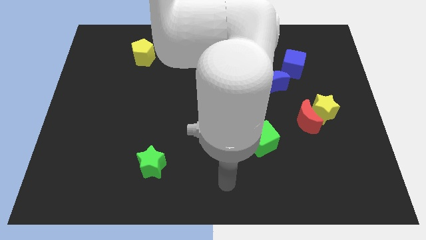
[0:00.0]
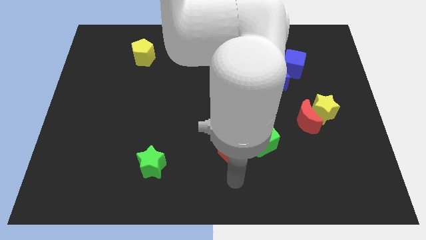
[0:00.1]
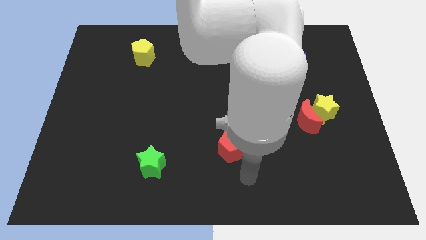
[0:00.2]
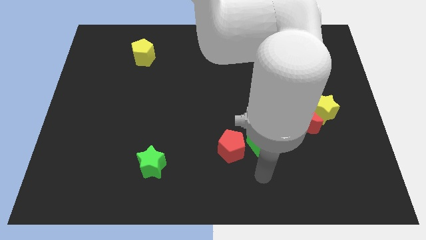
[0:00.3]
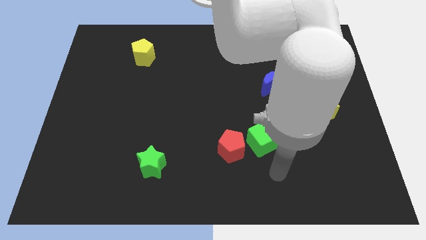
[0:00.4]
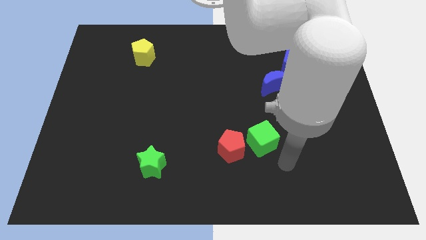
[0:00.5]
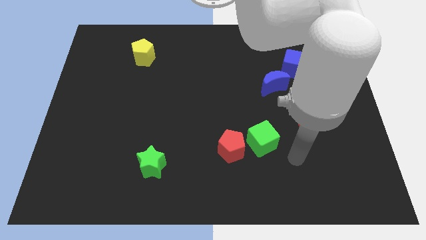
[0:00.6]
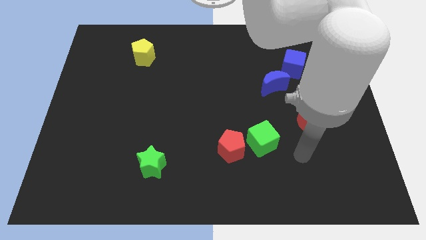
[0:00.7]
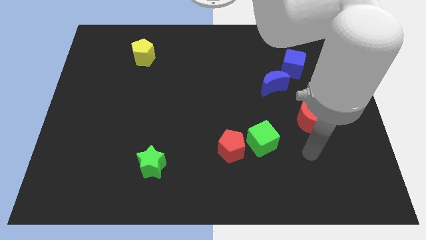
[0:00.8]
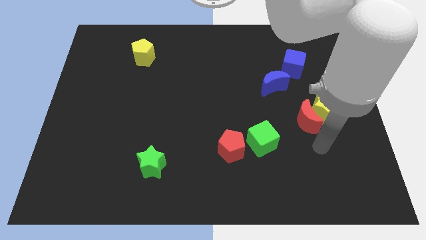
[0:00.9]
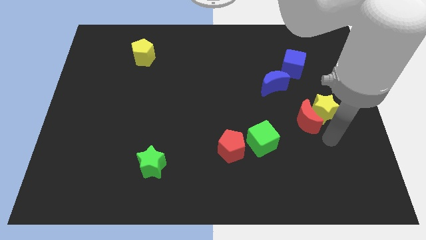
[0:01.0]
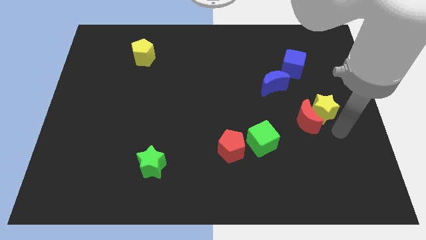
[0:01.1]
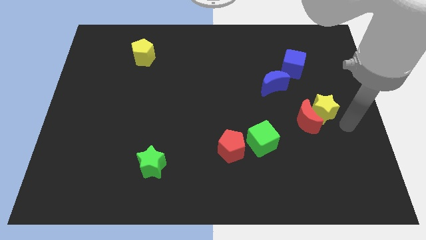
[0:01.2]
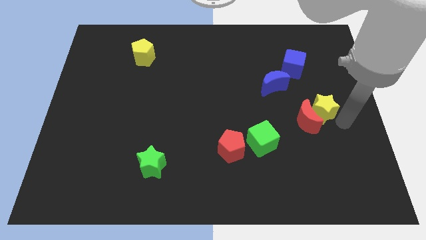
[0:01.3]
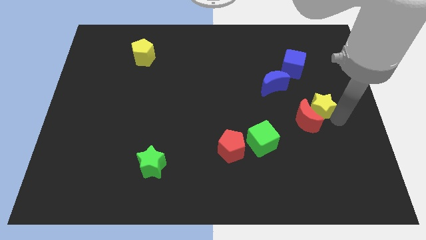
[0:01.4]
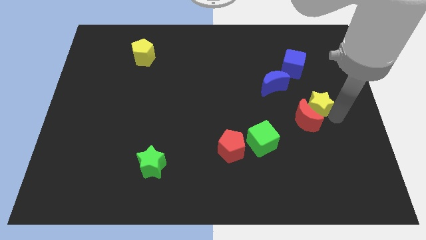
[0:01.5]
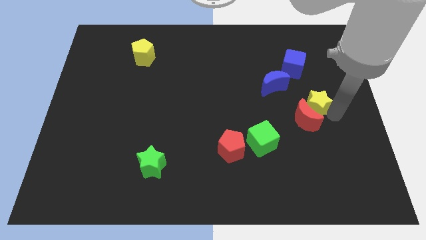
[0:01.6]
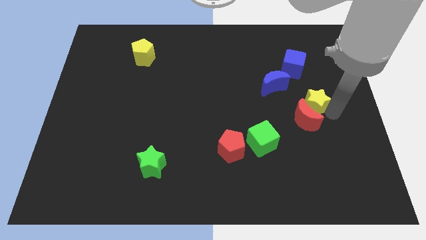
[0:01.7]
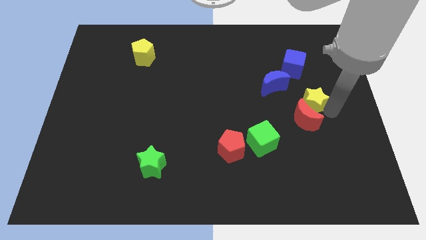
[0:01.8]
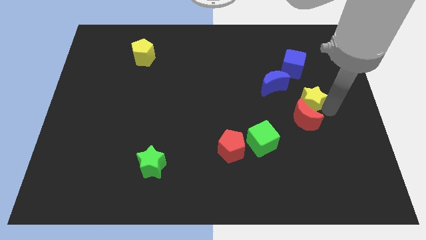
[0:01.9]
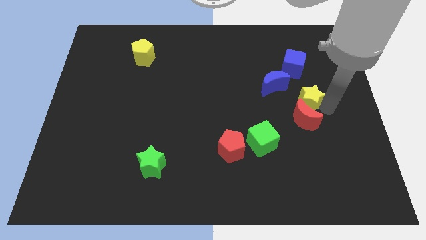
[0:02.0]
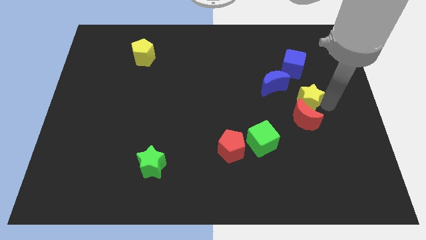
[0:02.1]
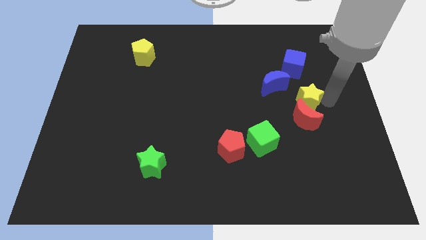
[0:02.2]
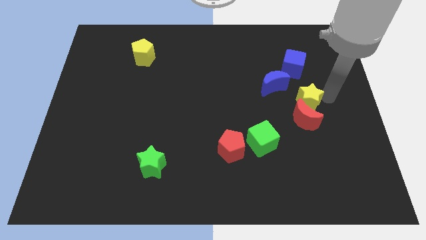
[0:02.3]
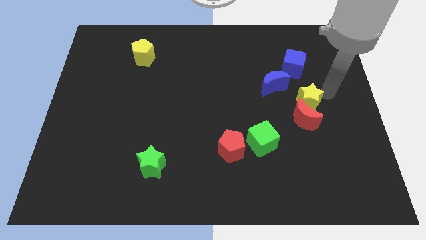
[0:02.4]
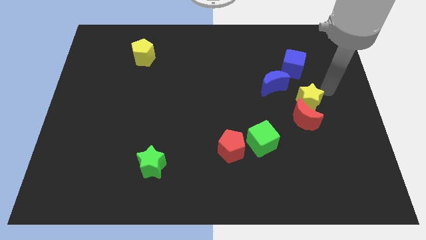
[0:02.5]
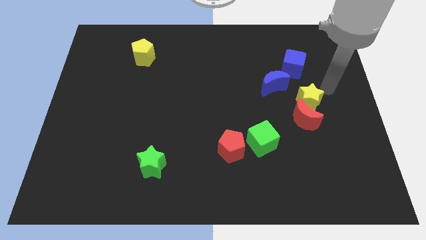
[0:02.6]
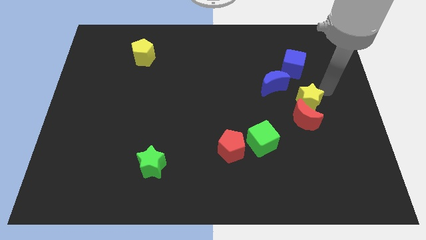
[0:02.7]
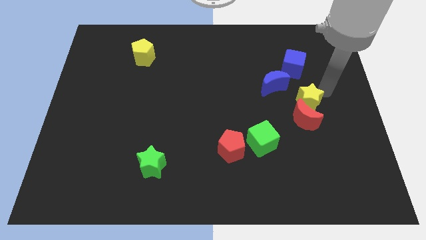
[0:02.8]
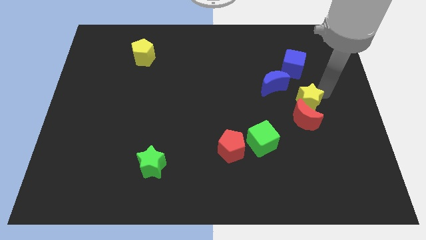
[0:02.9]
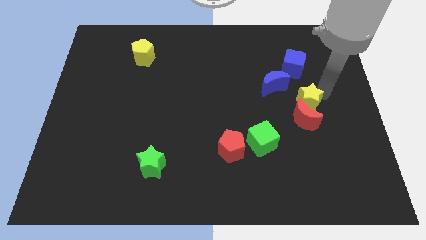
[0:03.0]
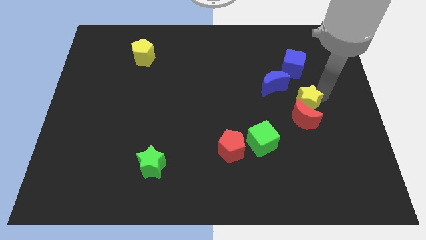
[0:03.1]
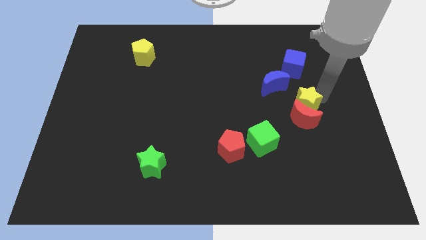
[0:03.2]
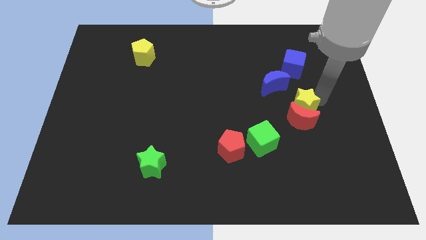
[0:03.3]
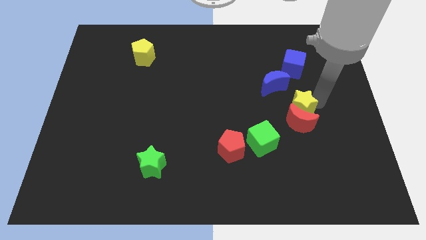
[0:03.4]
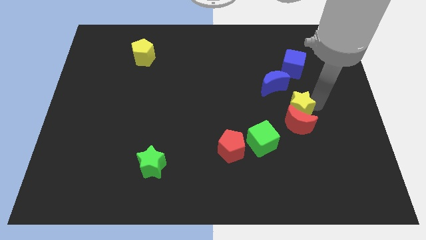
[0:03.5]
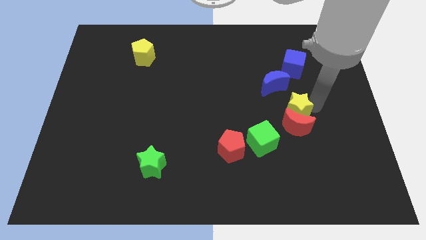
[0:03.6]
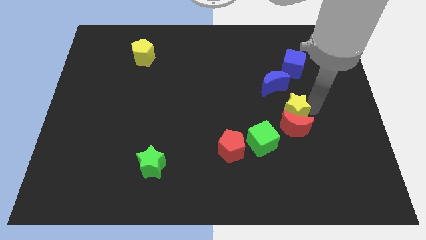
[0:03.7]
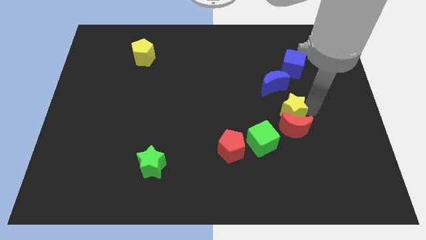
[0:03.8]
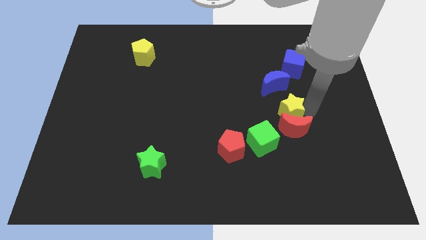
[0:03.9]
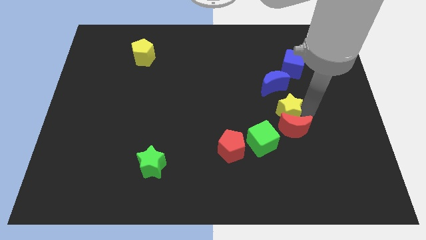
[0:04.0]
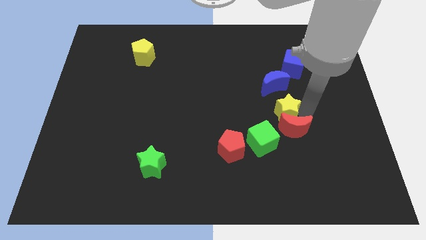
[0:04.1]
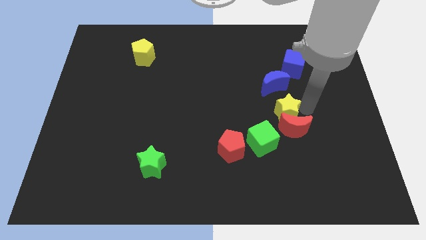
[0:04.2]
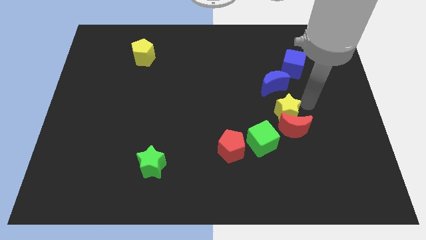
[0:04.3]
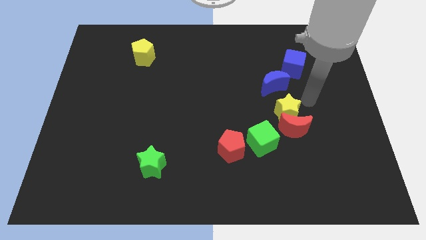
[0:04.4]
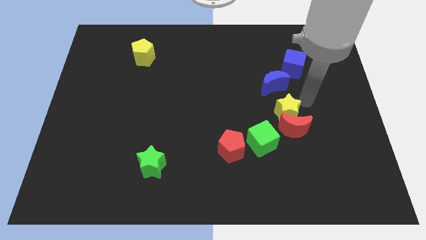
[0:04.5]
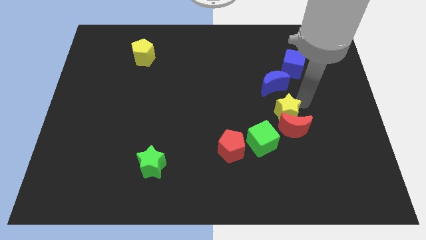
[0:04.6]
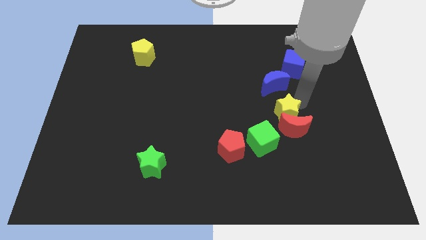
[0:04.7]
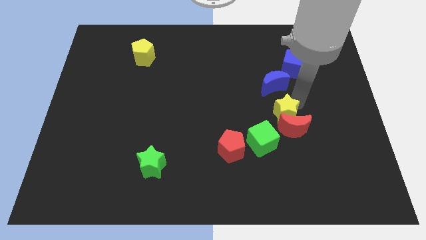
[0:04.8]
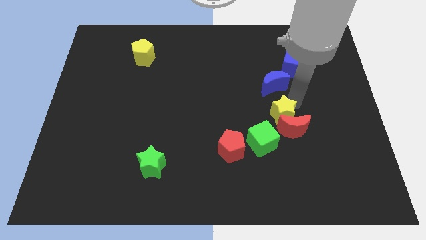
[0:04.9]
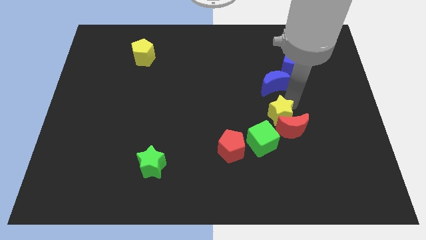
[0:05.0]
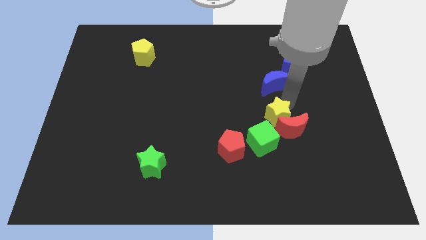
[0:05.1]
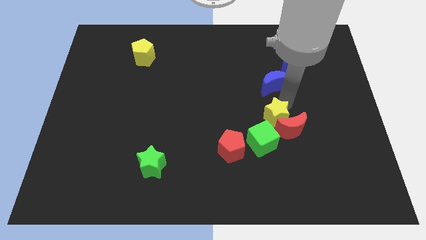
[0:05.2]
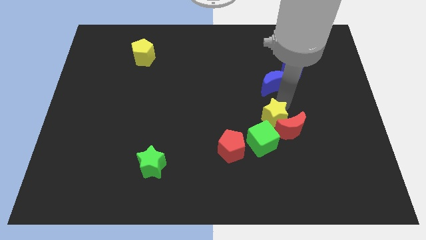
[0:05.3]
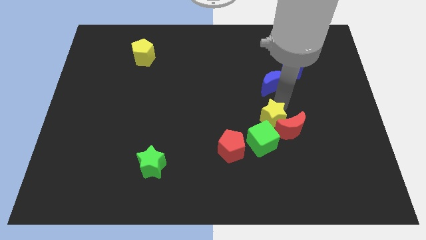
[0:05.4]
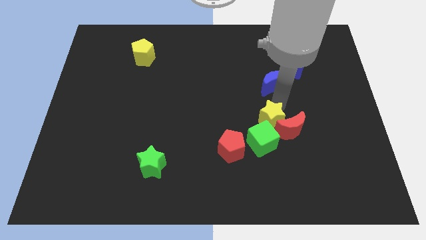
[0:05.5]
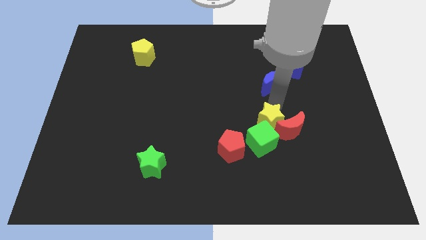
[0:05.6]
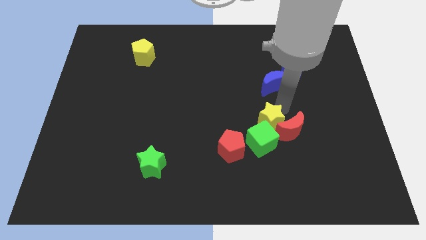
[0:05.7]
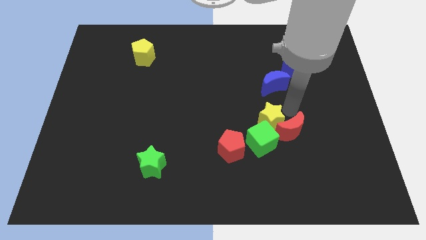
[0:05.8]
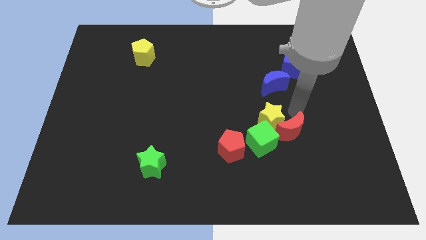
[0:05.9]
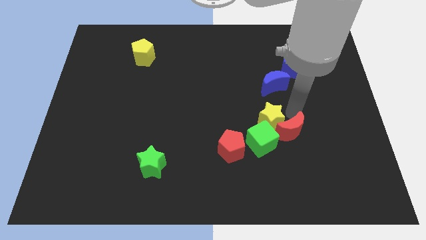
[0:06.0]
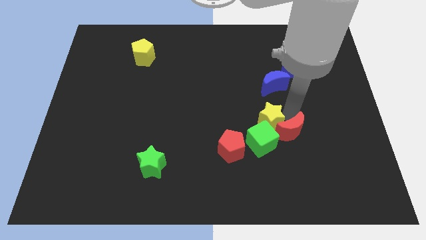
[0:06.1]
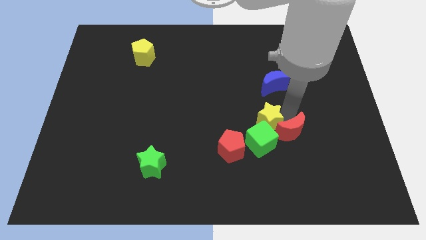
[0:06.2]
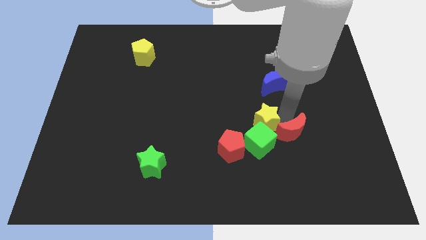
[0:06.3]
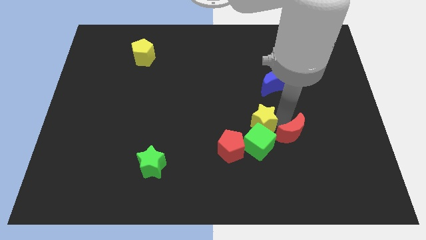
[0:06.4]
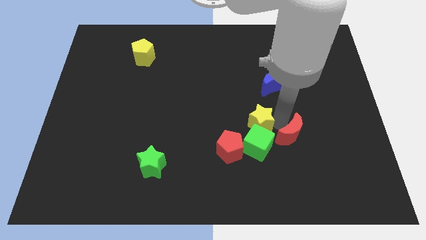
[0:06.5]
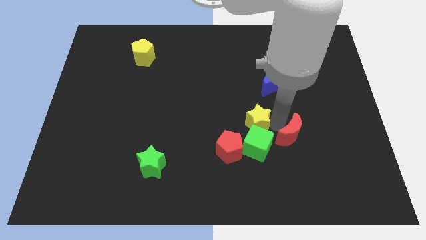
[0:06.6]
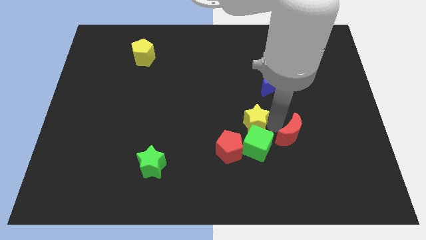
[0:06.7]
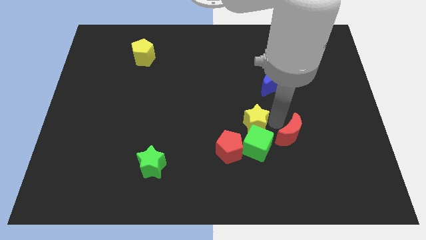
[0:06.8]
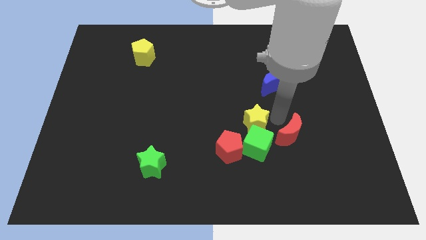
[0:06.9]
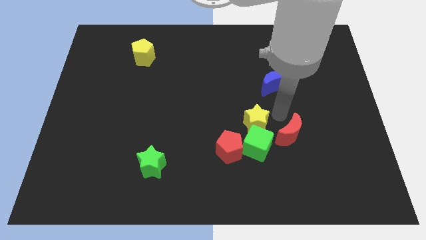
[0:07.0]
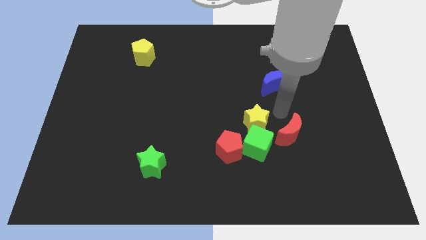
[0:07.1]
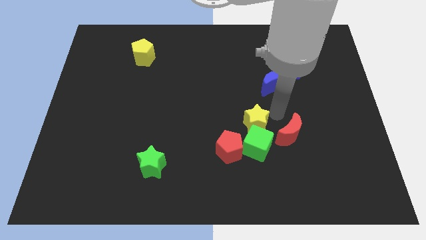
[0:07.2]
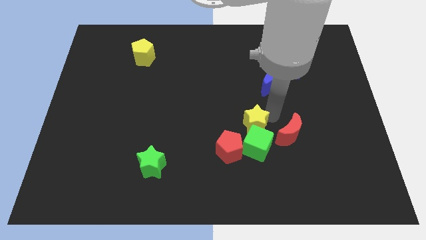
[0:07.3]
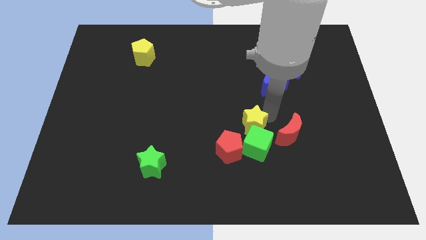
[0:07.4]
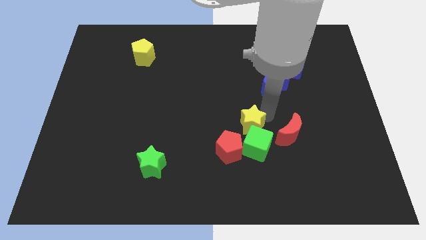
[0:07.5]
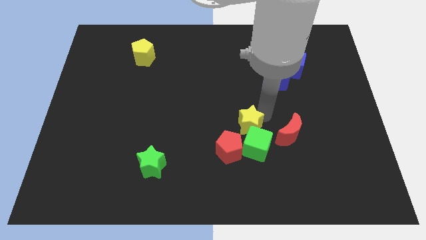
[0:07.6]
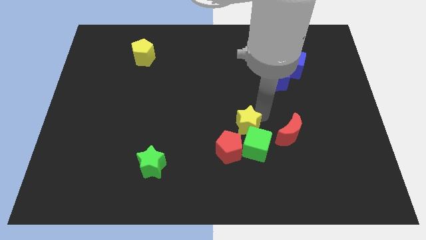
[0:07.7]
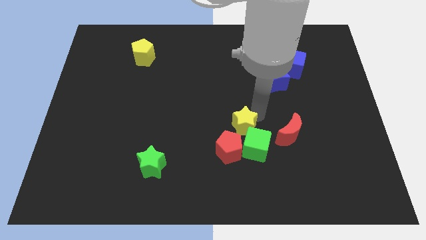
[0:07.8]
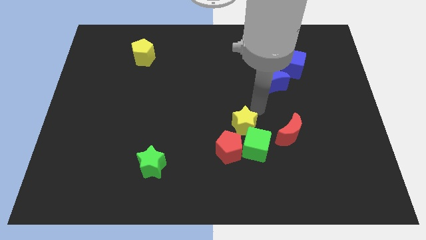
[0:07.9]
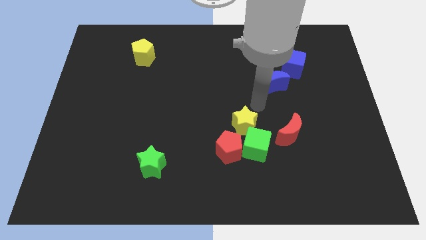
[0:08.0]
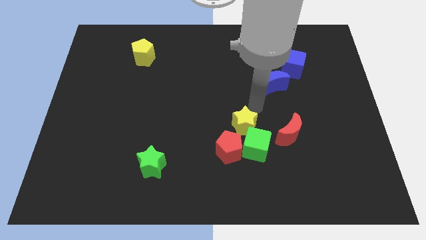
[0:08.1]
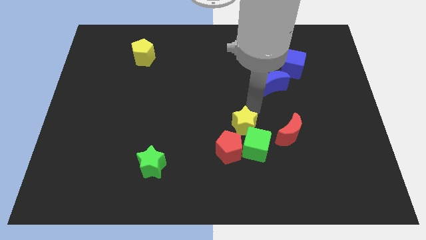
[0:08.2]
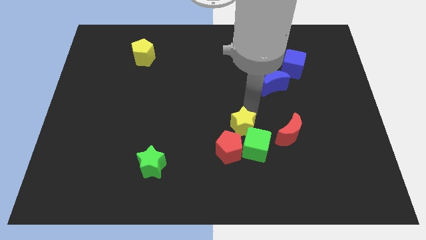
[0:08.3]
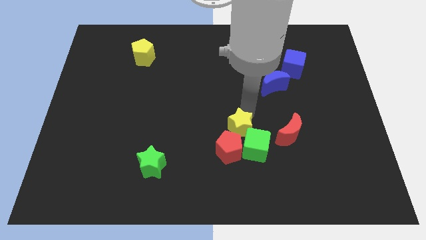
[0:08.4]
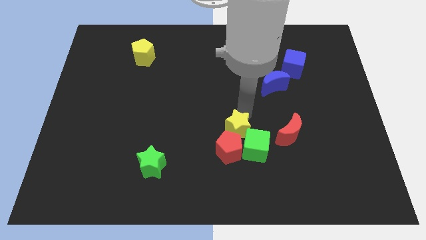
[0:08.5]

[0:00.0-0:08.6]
push the yellow star to the red pentagon
